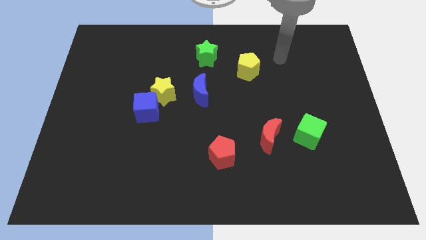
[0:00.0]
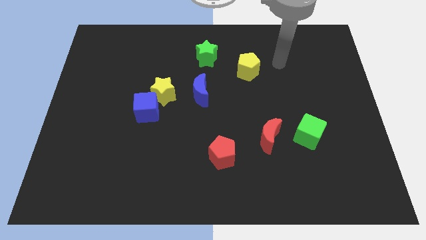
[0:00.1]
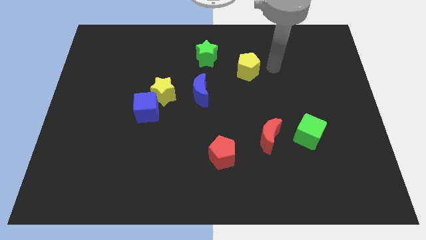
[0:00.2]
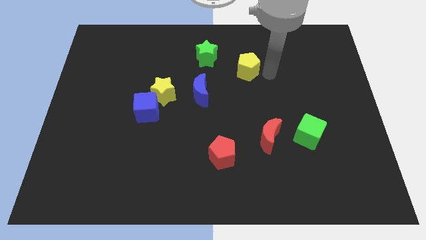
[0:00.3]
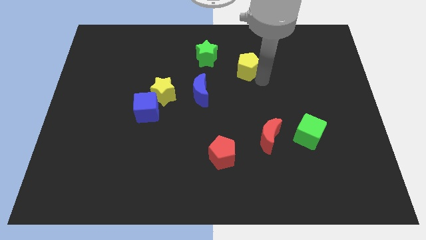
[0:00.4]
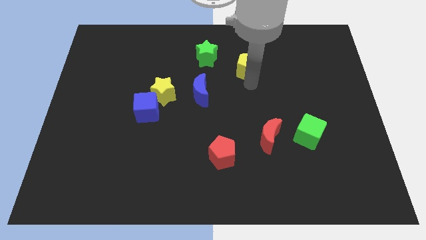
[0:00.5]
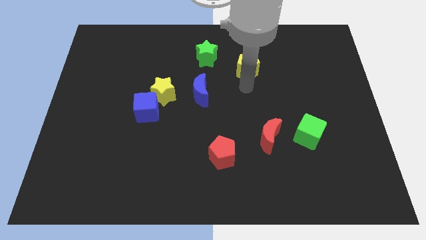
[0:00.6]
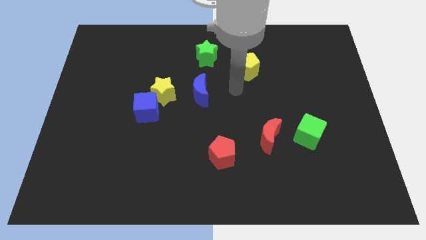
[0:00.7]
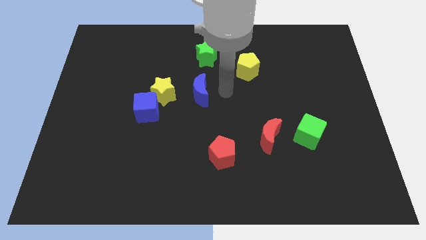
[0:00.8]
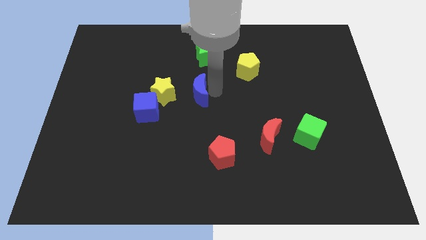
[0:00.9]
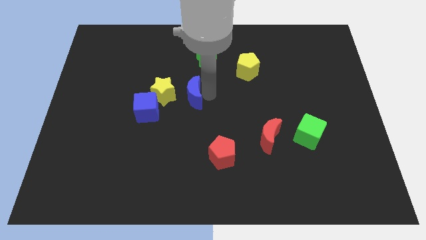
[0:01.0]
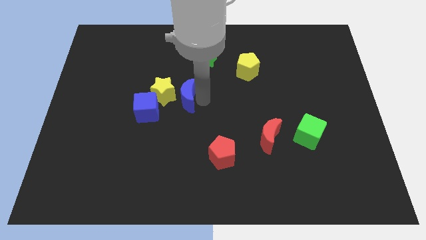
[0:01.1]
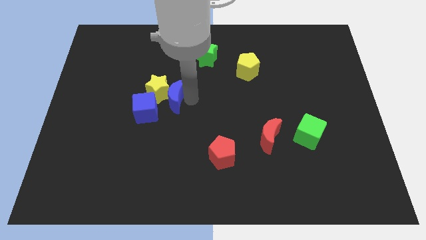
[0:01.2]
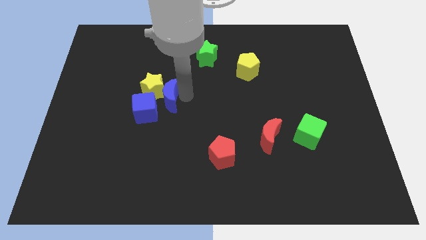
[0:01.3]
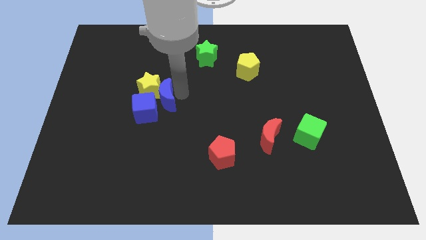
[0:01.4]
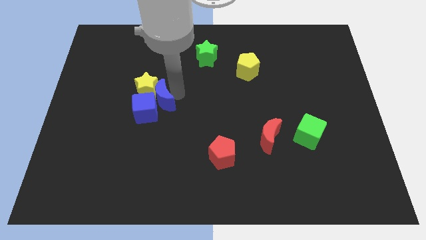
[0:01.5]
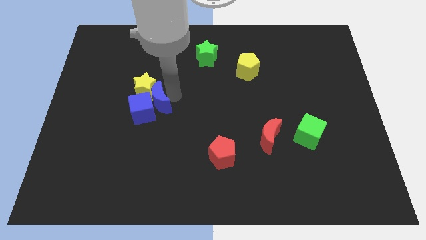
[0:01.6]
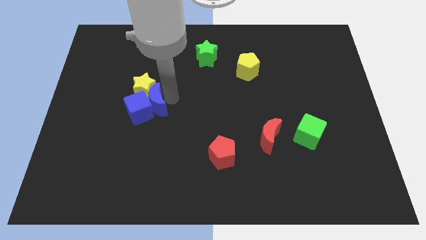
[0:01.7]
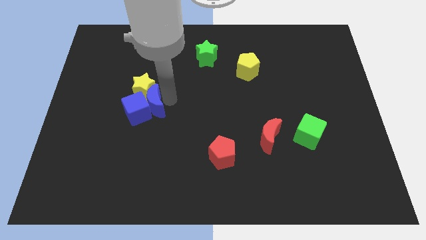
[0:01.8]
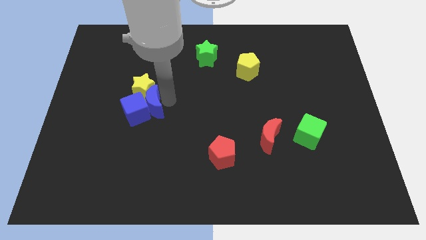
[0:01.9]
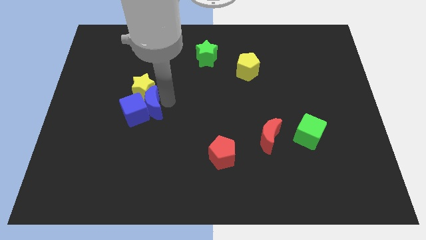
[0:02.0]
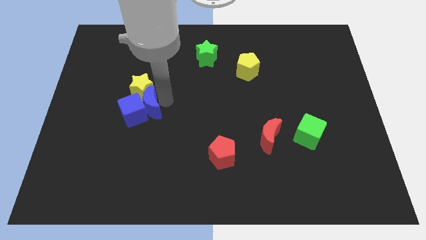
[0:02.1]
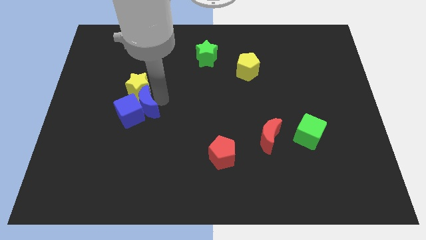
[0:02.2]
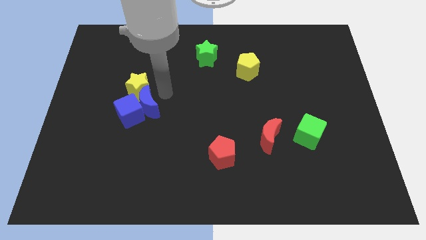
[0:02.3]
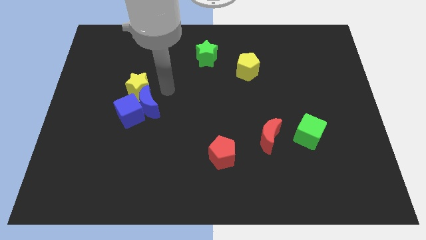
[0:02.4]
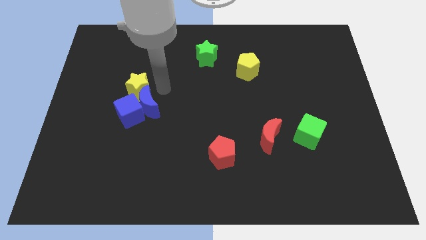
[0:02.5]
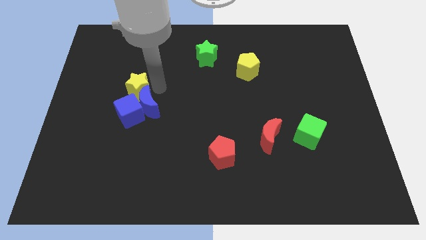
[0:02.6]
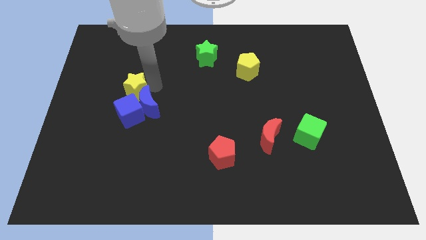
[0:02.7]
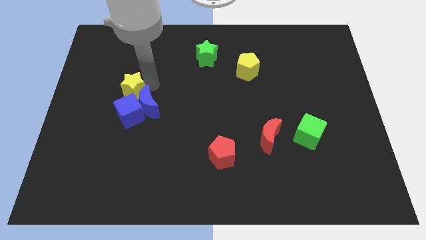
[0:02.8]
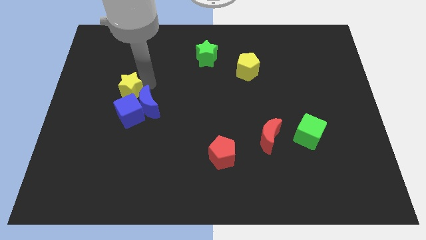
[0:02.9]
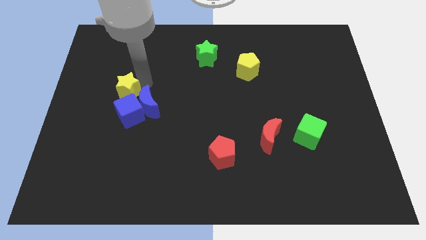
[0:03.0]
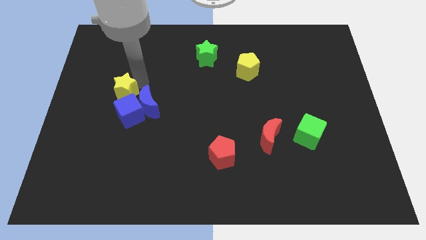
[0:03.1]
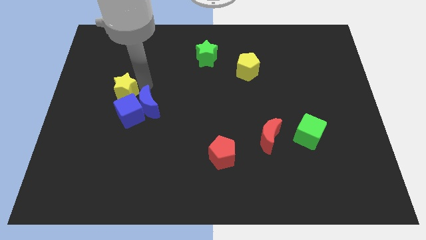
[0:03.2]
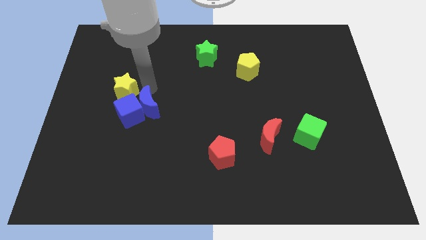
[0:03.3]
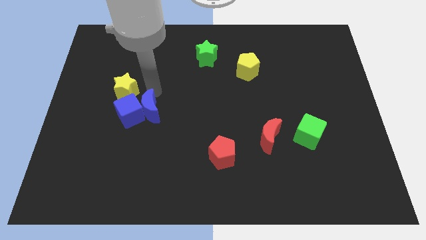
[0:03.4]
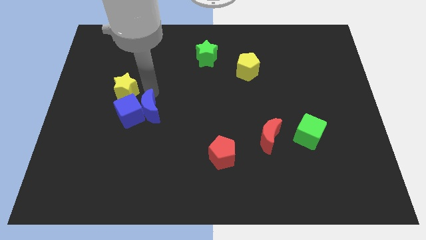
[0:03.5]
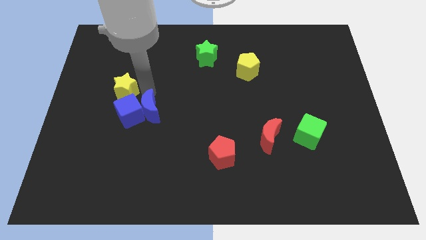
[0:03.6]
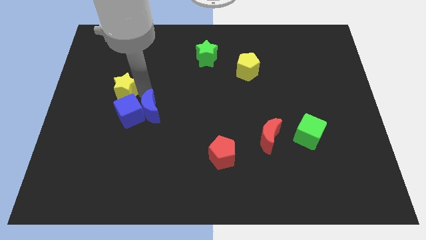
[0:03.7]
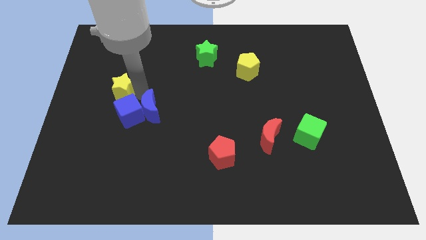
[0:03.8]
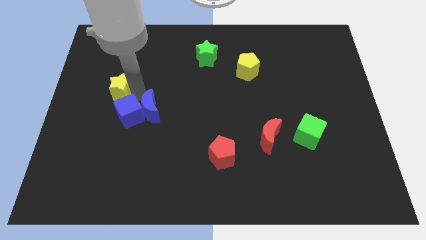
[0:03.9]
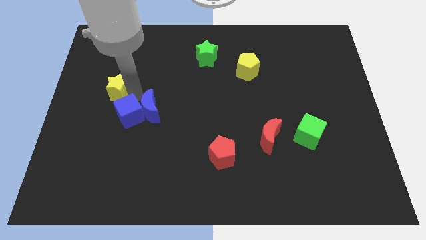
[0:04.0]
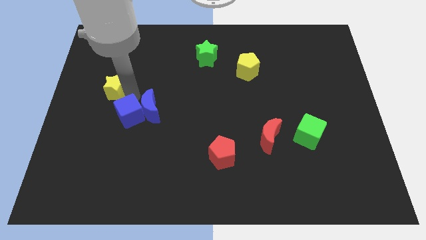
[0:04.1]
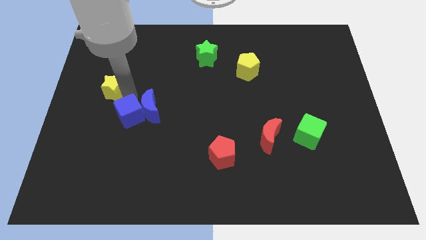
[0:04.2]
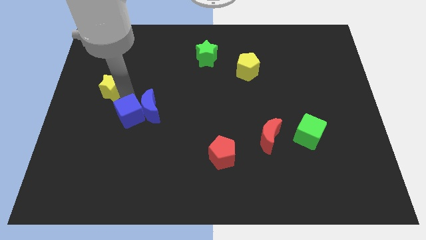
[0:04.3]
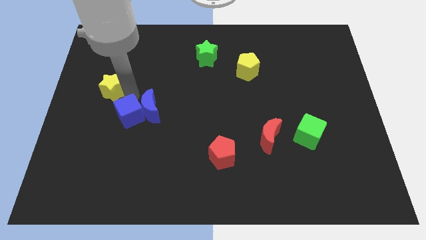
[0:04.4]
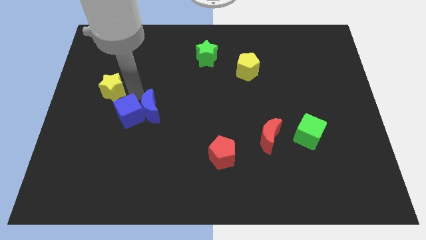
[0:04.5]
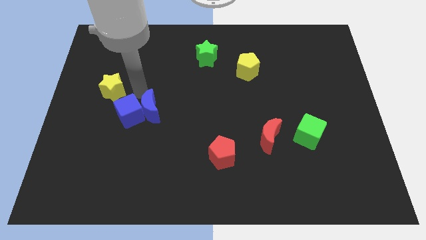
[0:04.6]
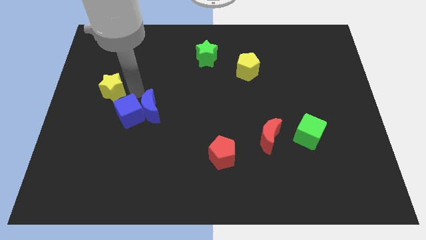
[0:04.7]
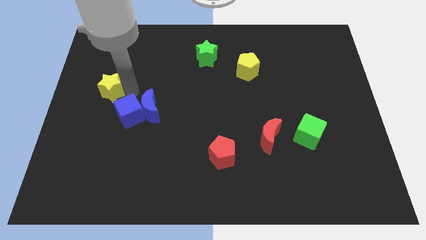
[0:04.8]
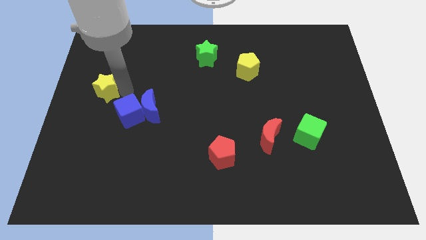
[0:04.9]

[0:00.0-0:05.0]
slide the yellow star to the left side

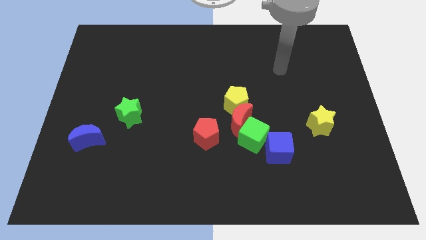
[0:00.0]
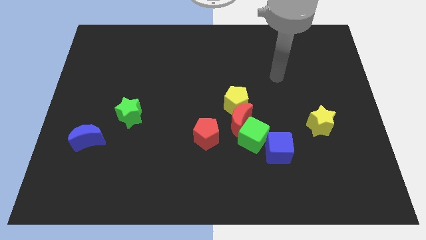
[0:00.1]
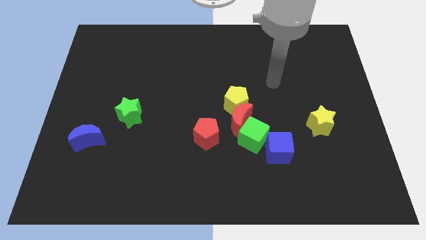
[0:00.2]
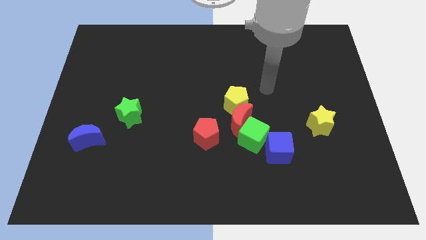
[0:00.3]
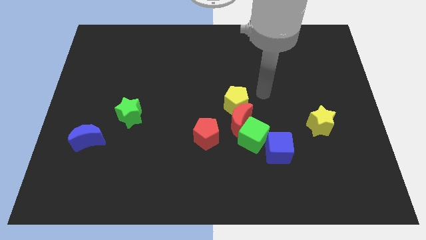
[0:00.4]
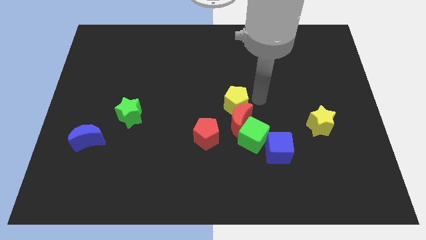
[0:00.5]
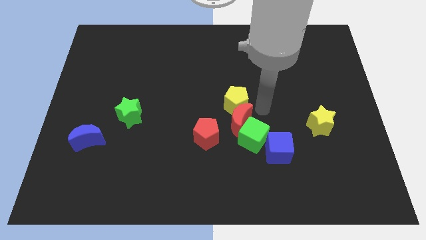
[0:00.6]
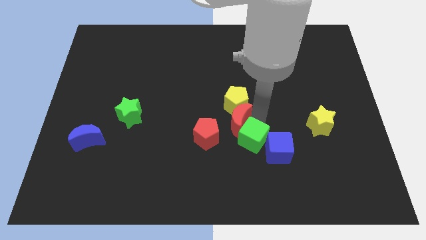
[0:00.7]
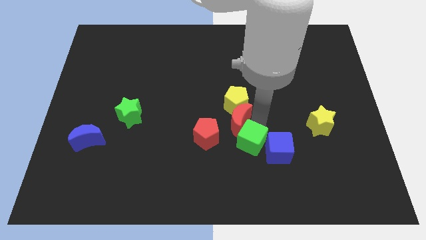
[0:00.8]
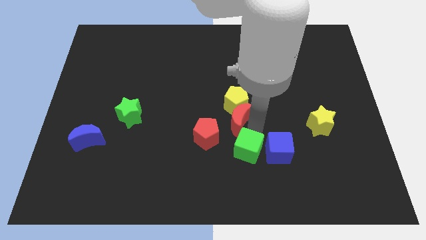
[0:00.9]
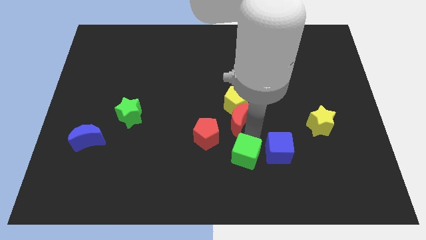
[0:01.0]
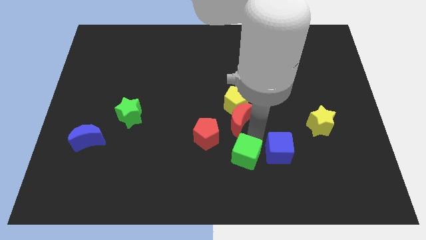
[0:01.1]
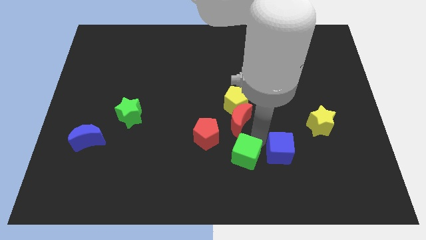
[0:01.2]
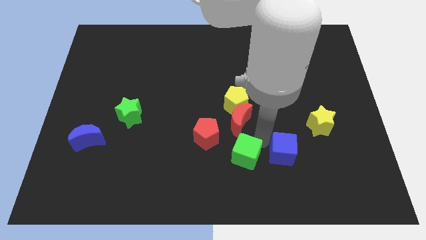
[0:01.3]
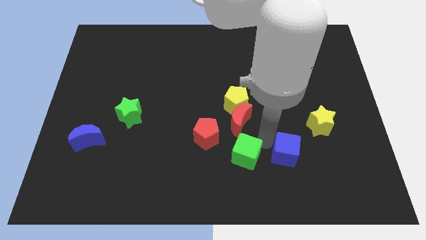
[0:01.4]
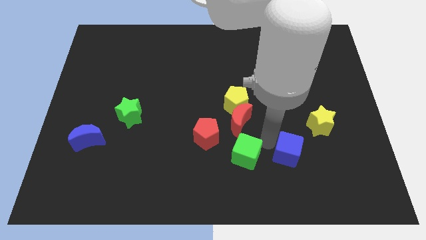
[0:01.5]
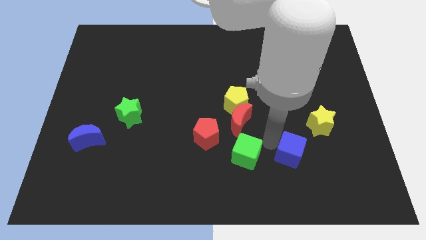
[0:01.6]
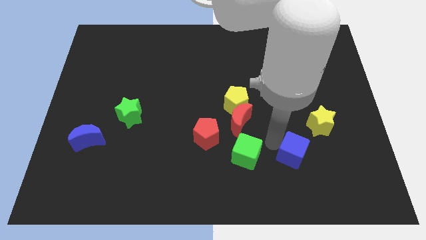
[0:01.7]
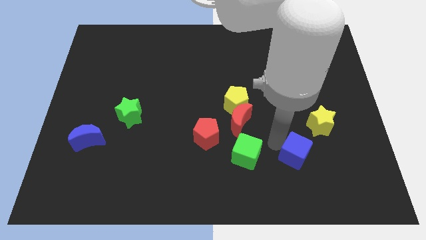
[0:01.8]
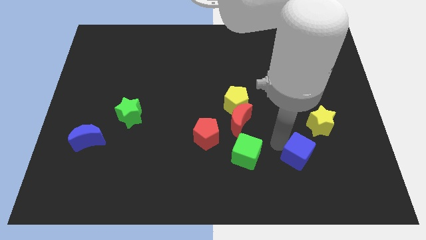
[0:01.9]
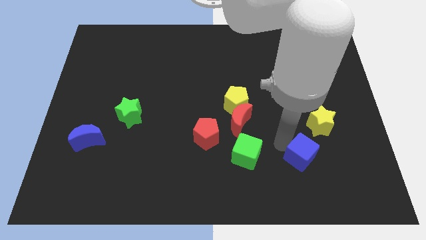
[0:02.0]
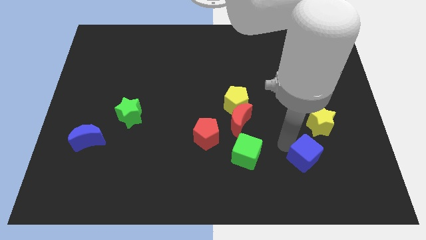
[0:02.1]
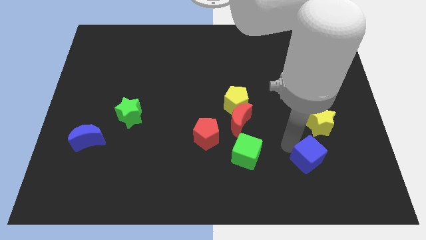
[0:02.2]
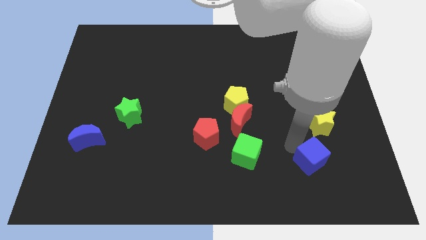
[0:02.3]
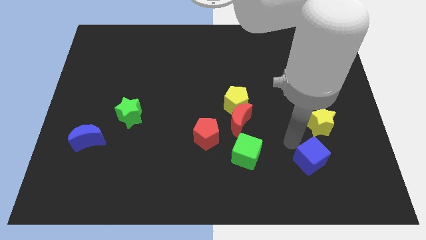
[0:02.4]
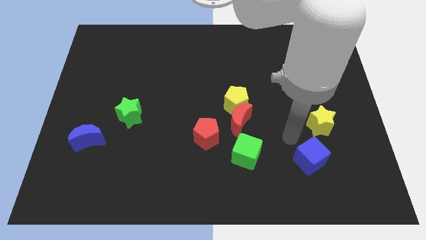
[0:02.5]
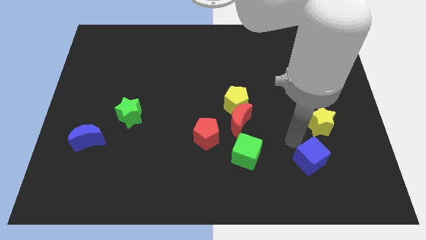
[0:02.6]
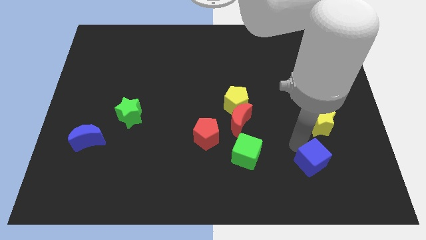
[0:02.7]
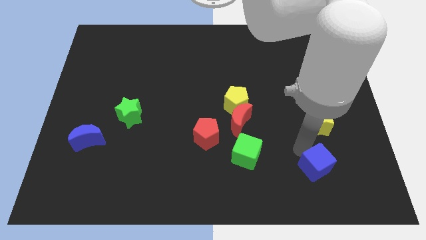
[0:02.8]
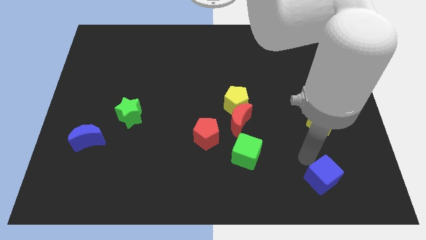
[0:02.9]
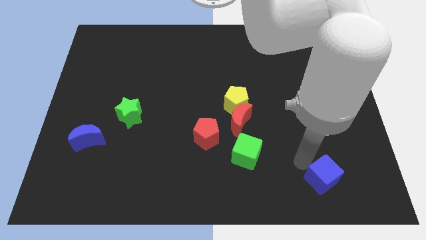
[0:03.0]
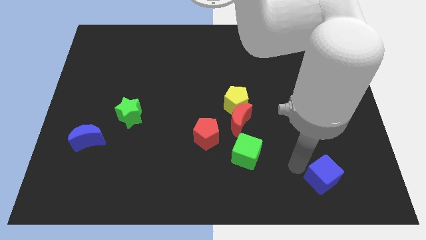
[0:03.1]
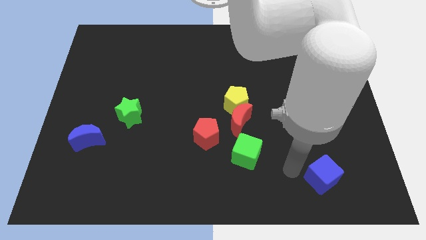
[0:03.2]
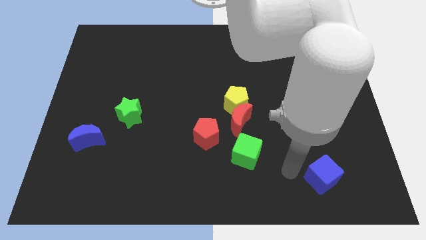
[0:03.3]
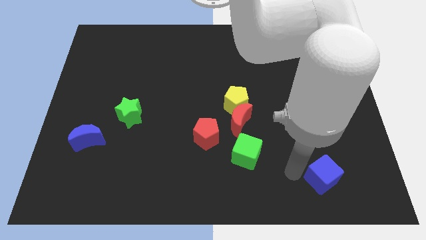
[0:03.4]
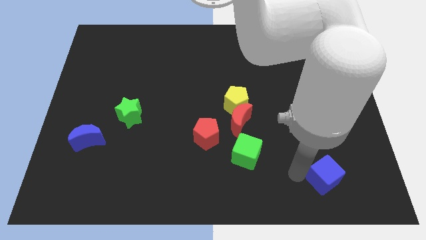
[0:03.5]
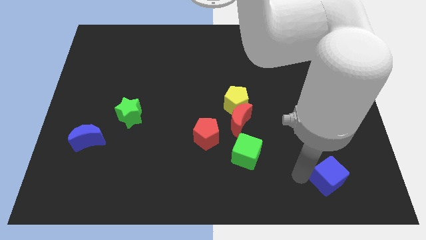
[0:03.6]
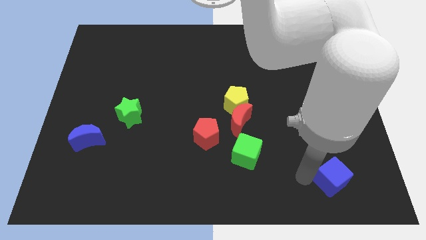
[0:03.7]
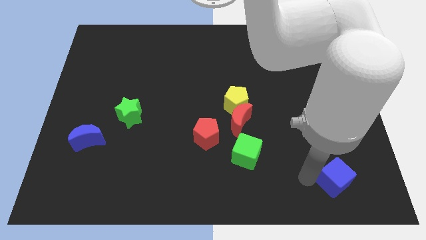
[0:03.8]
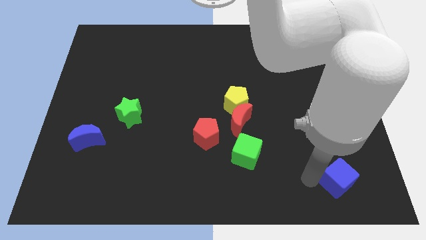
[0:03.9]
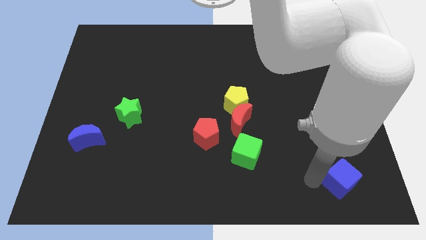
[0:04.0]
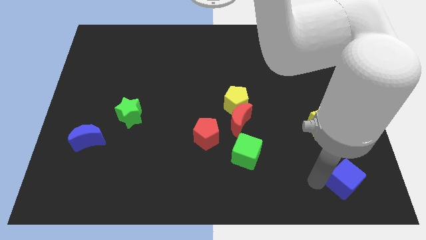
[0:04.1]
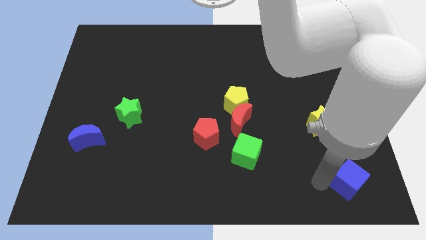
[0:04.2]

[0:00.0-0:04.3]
slide the blue cube to the bottom right corner
